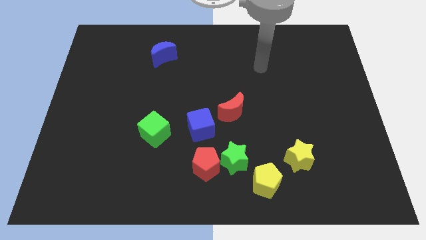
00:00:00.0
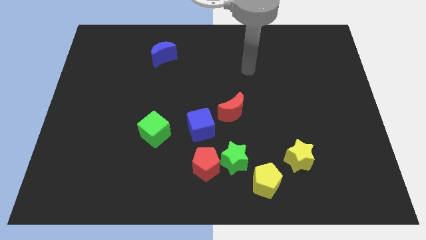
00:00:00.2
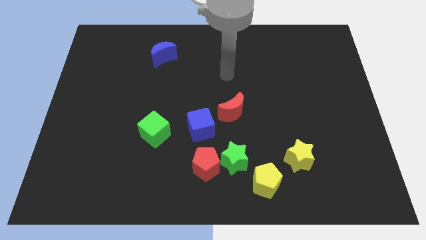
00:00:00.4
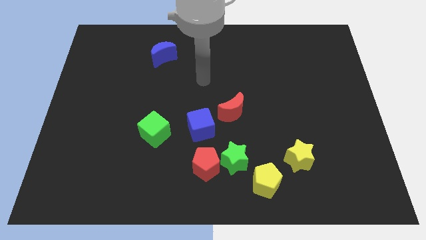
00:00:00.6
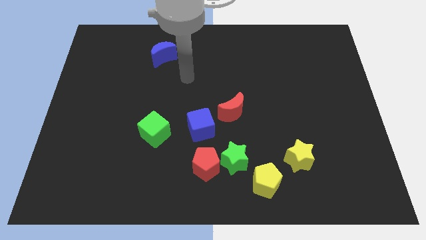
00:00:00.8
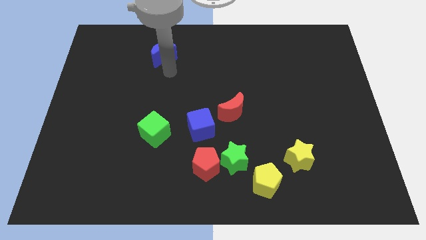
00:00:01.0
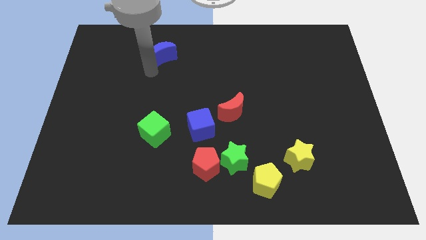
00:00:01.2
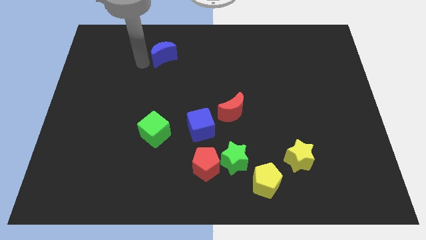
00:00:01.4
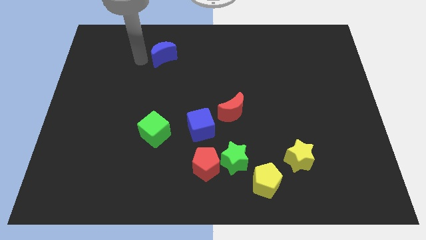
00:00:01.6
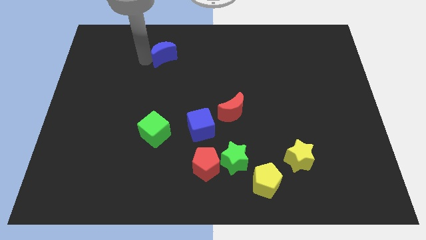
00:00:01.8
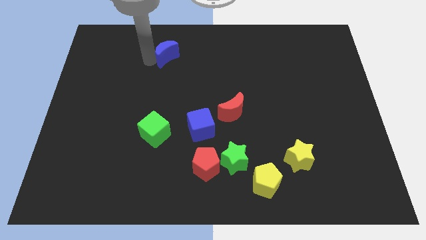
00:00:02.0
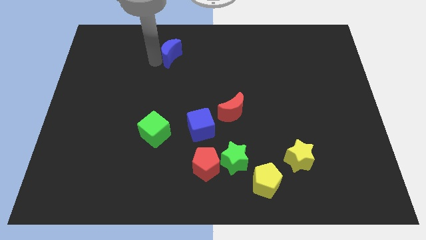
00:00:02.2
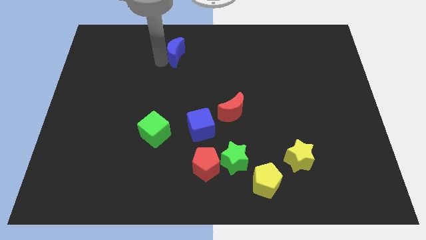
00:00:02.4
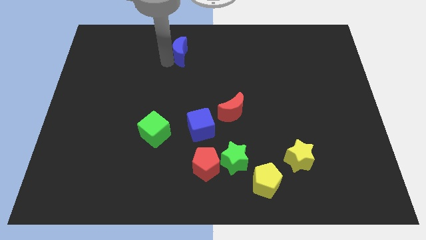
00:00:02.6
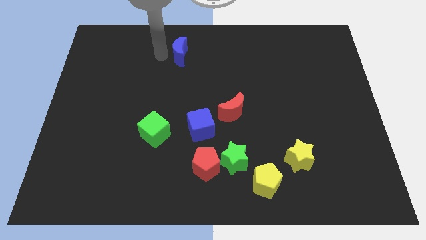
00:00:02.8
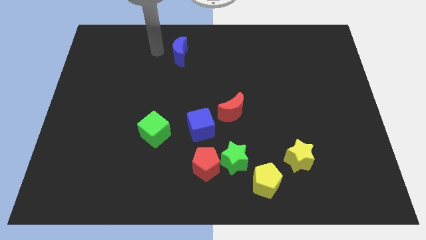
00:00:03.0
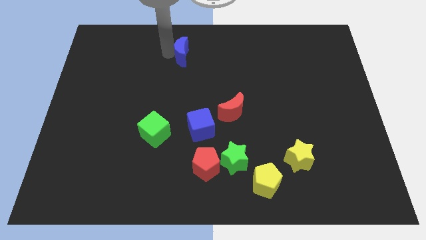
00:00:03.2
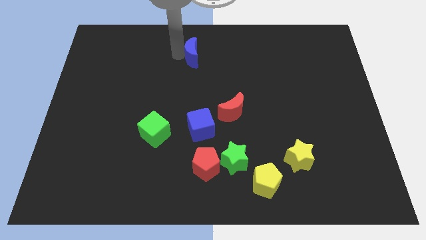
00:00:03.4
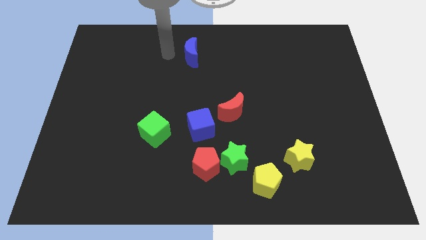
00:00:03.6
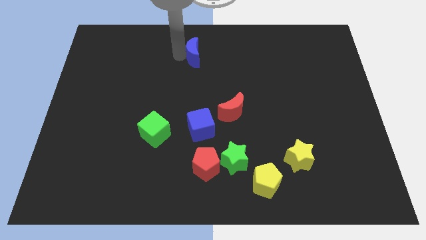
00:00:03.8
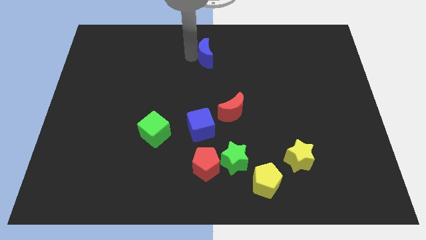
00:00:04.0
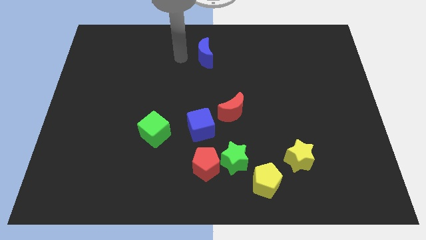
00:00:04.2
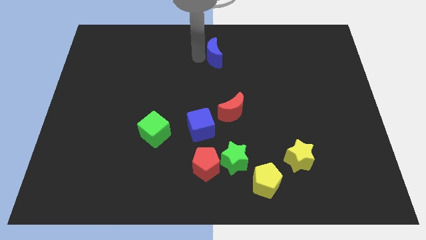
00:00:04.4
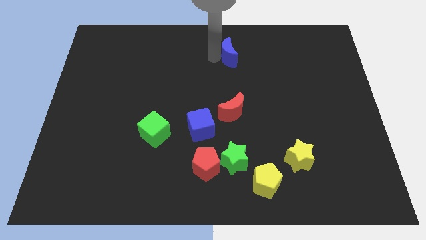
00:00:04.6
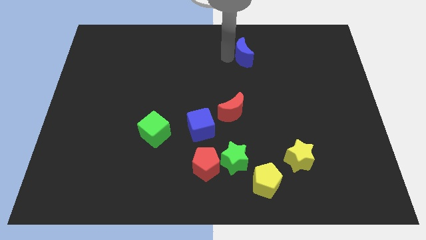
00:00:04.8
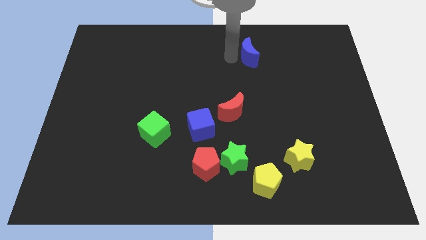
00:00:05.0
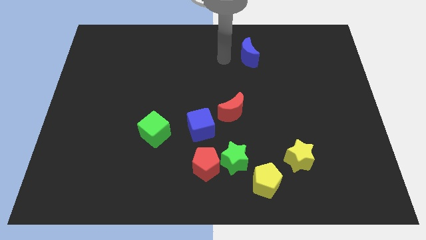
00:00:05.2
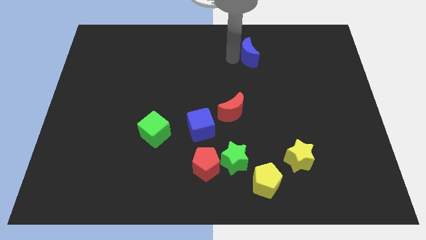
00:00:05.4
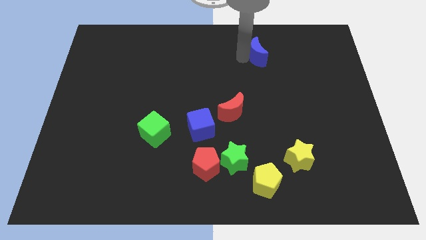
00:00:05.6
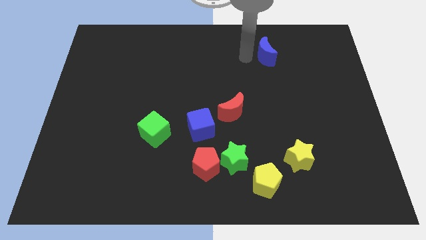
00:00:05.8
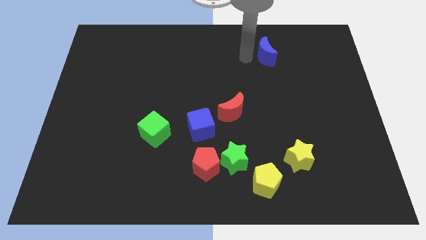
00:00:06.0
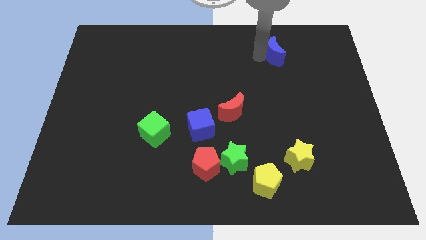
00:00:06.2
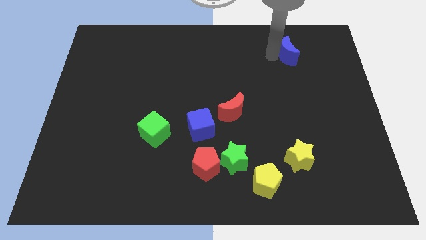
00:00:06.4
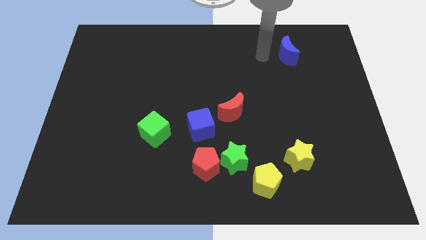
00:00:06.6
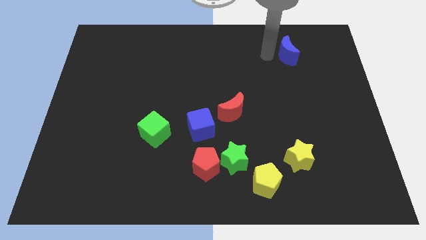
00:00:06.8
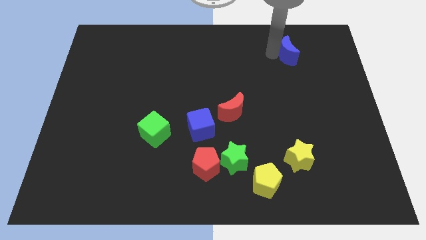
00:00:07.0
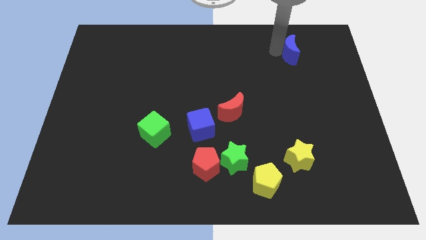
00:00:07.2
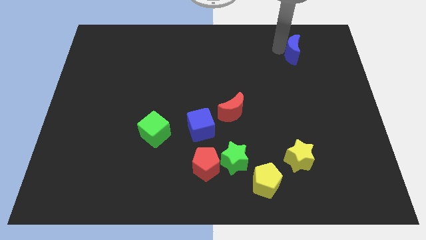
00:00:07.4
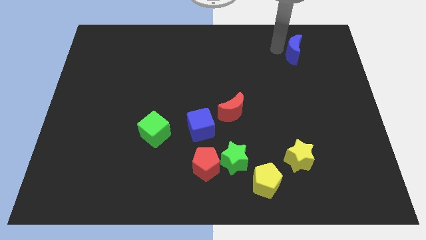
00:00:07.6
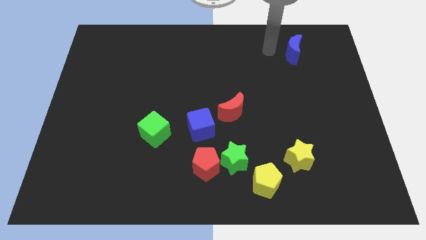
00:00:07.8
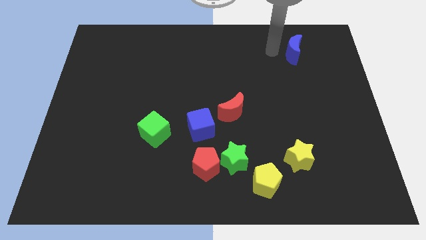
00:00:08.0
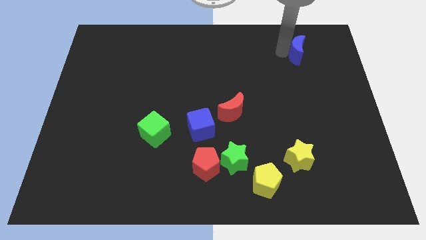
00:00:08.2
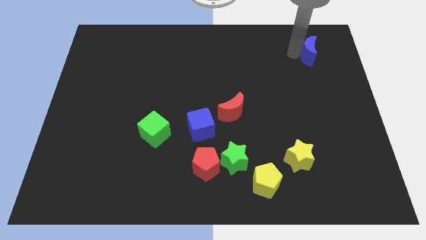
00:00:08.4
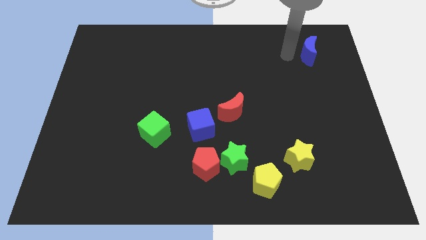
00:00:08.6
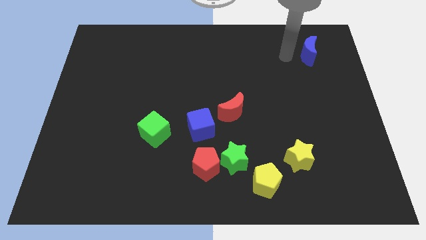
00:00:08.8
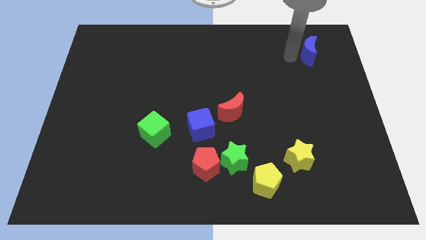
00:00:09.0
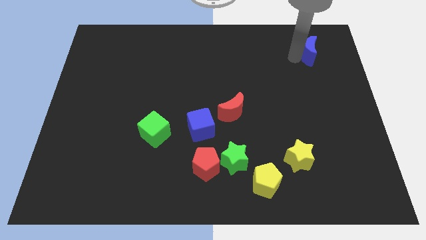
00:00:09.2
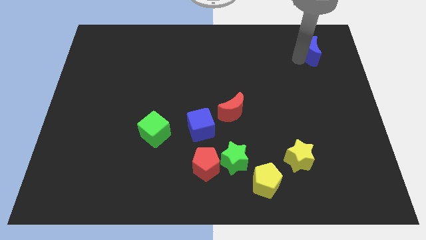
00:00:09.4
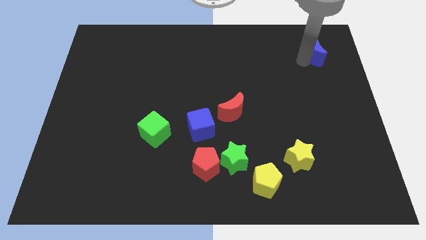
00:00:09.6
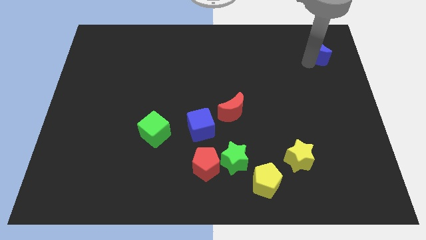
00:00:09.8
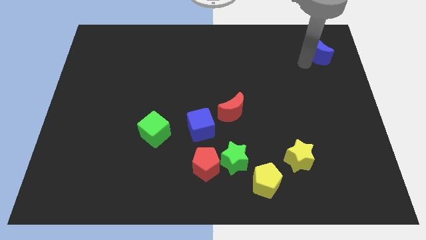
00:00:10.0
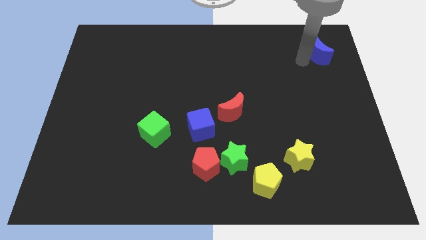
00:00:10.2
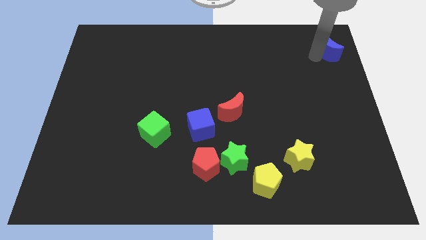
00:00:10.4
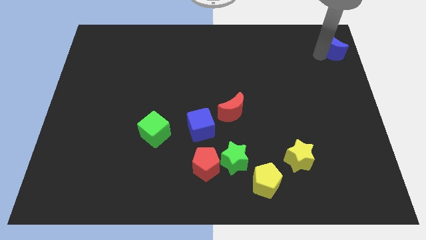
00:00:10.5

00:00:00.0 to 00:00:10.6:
slide the blue moon to the top right
